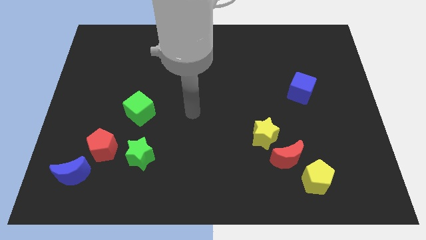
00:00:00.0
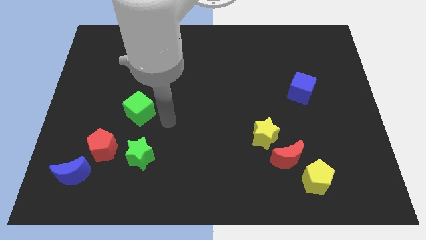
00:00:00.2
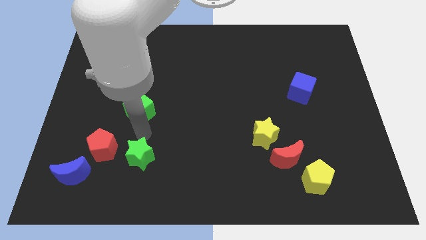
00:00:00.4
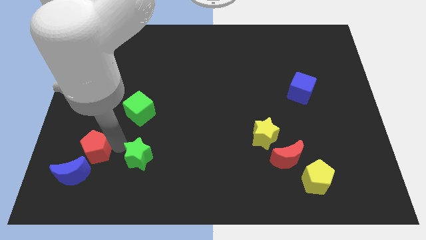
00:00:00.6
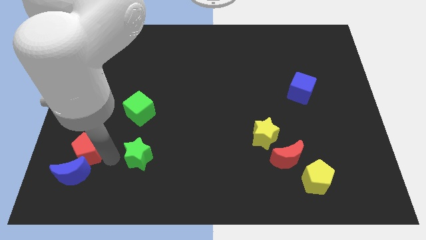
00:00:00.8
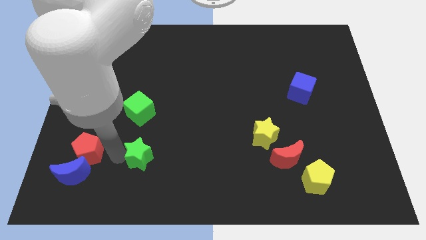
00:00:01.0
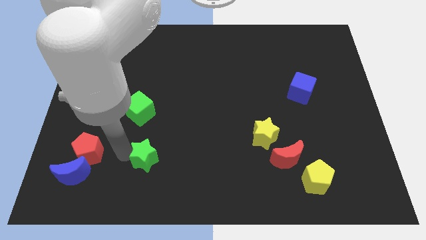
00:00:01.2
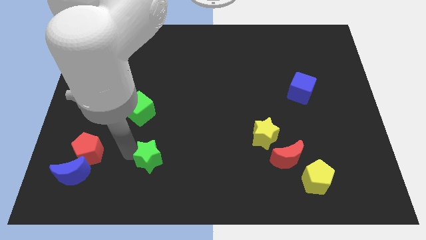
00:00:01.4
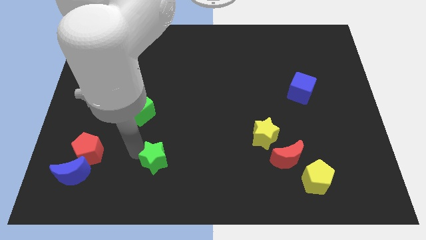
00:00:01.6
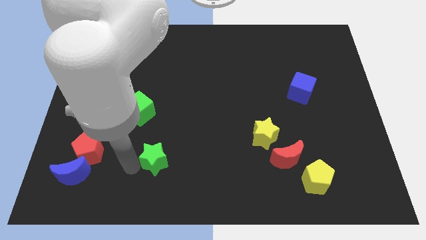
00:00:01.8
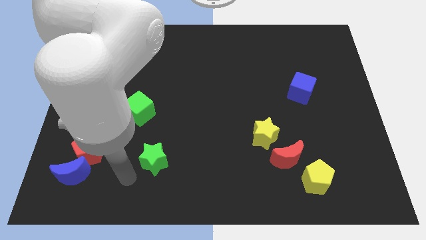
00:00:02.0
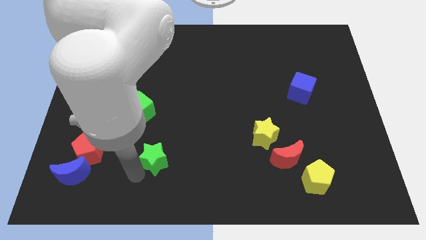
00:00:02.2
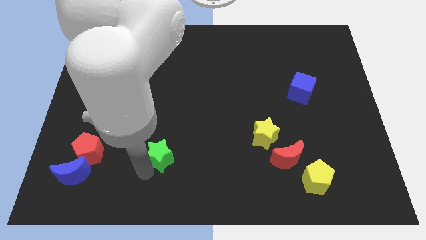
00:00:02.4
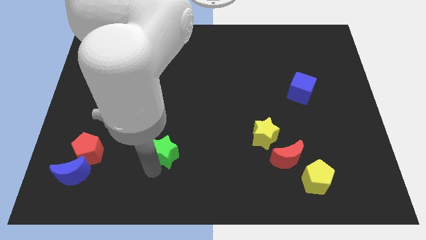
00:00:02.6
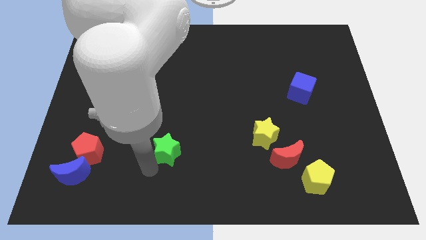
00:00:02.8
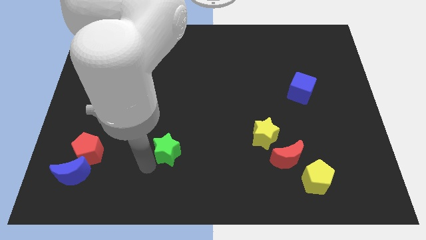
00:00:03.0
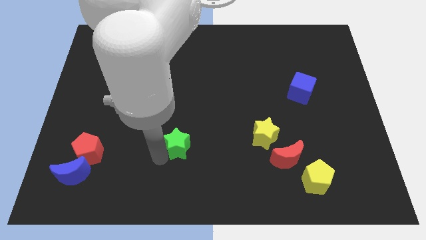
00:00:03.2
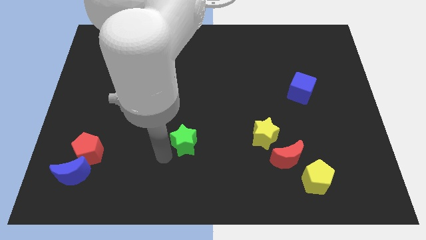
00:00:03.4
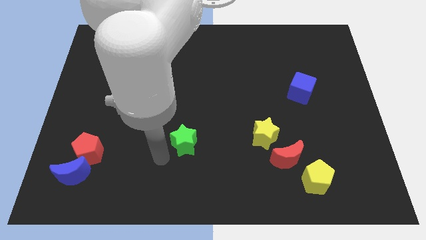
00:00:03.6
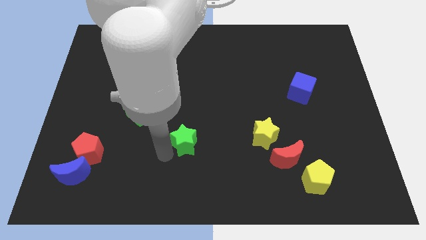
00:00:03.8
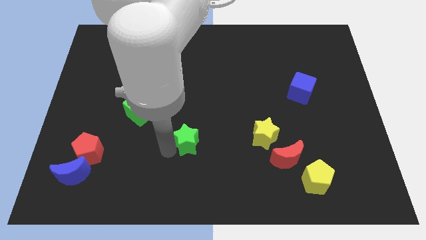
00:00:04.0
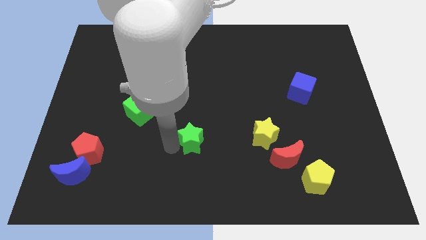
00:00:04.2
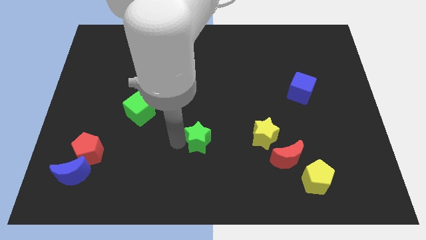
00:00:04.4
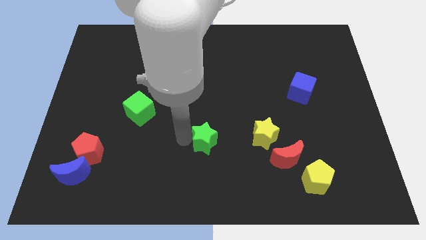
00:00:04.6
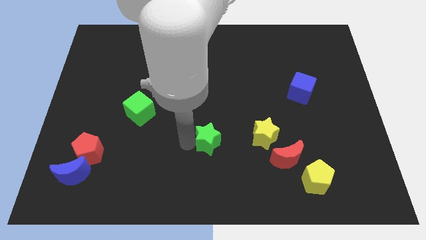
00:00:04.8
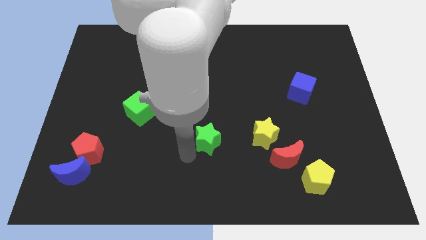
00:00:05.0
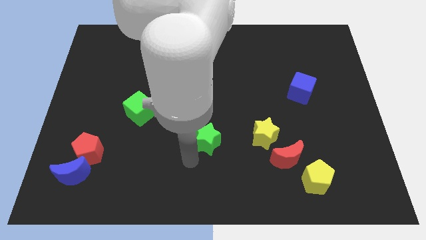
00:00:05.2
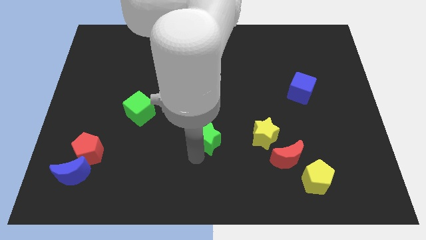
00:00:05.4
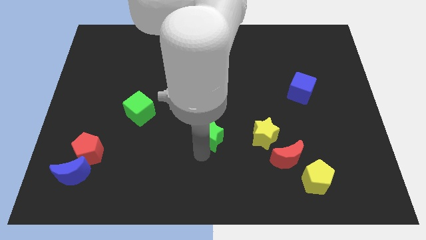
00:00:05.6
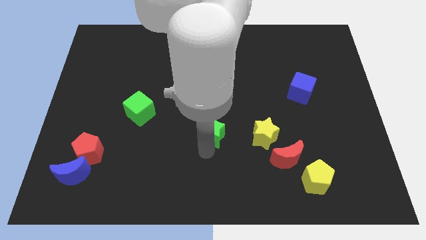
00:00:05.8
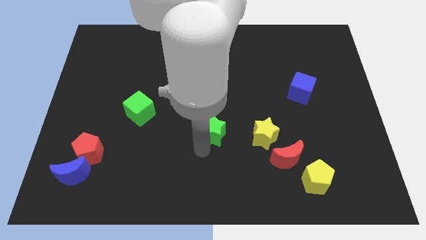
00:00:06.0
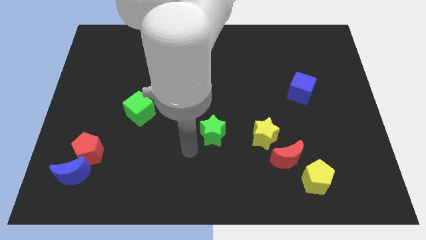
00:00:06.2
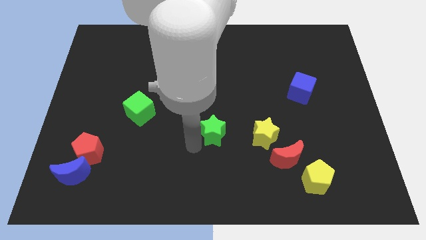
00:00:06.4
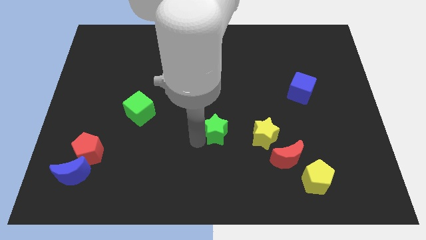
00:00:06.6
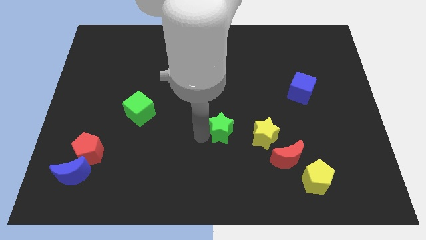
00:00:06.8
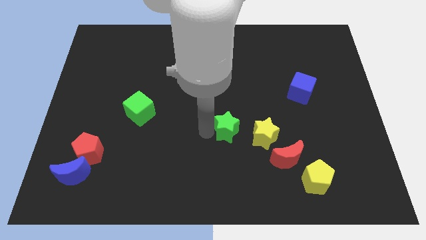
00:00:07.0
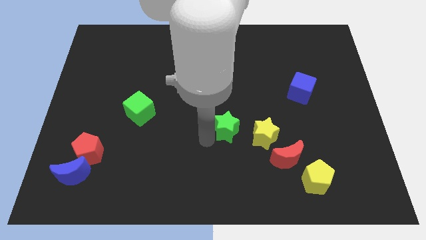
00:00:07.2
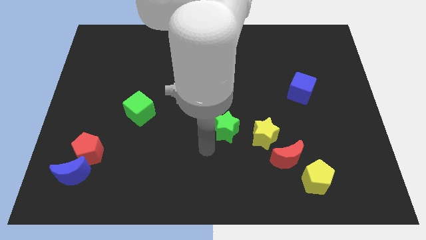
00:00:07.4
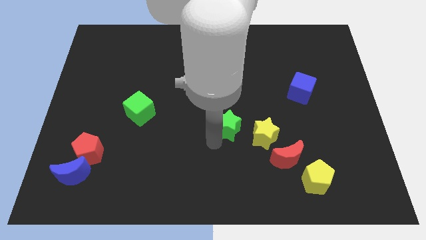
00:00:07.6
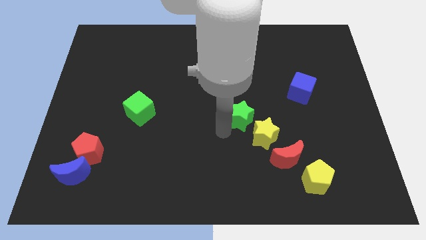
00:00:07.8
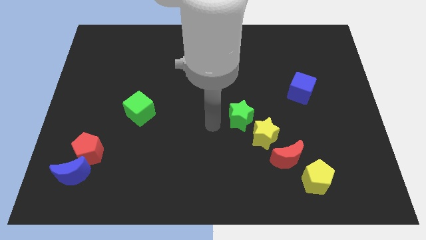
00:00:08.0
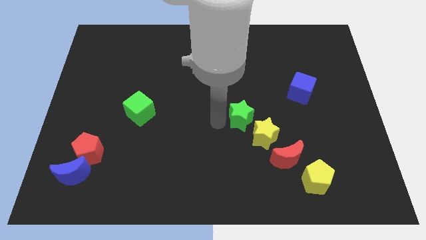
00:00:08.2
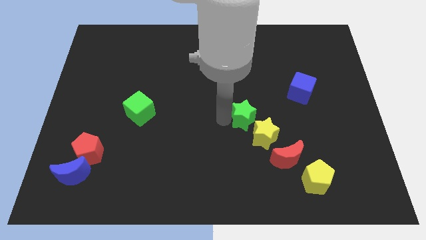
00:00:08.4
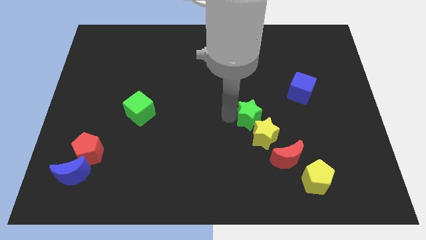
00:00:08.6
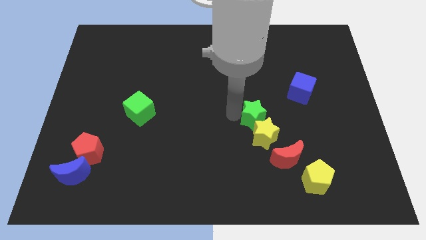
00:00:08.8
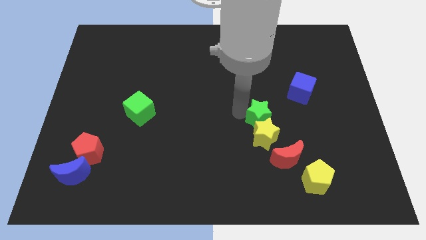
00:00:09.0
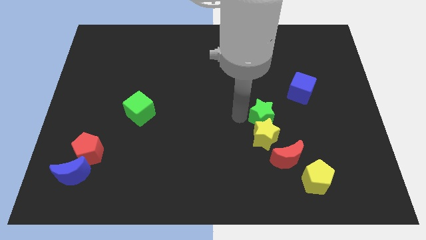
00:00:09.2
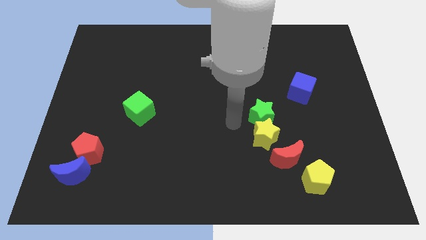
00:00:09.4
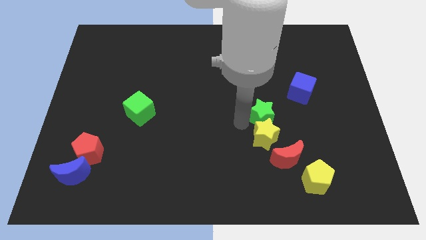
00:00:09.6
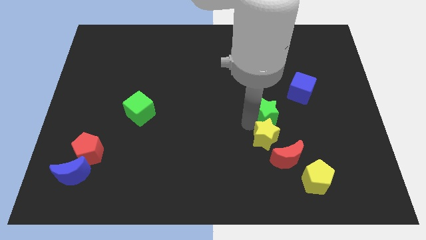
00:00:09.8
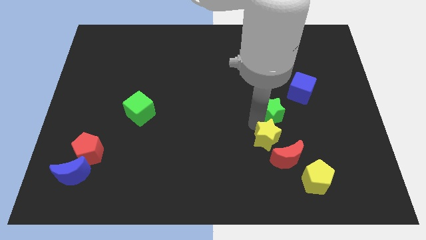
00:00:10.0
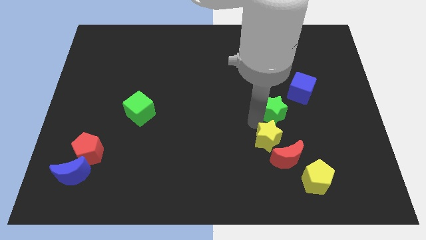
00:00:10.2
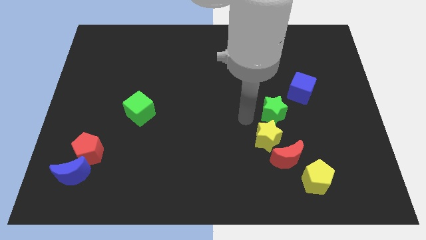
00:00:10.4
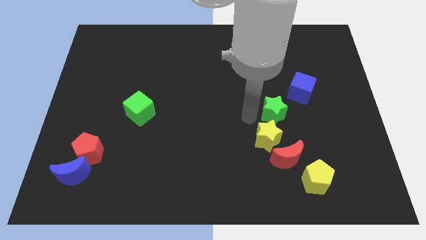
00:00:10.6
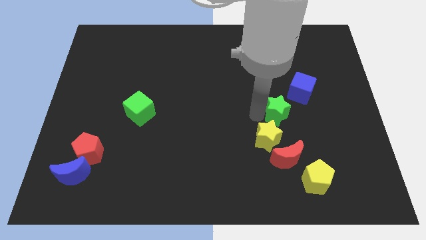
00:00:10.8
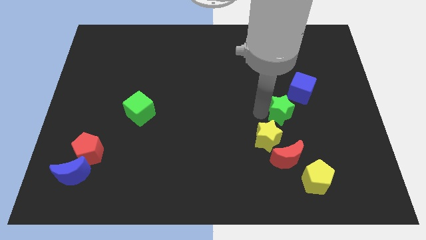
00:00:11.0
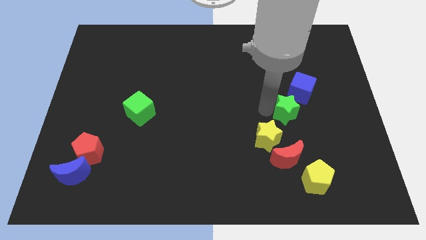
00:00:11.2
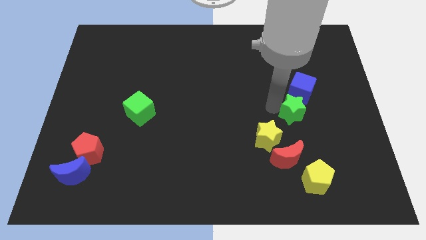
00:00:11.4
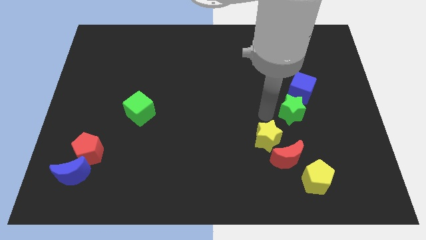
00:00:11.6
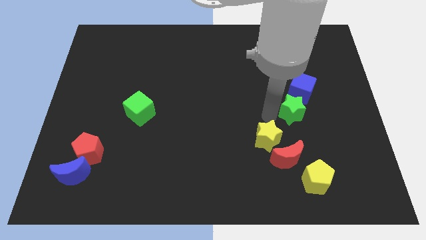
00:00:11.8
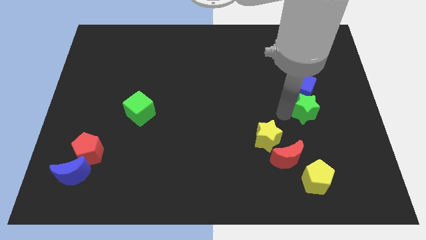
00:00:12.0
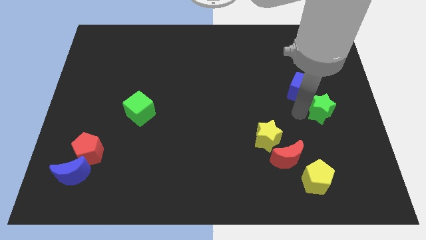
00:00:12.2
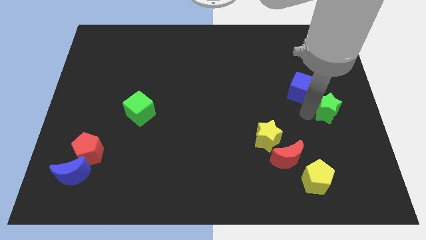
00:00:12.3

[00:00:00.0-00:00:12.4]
slide the green star to the center right
